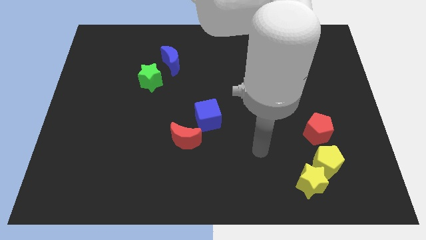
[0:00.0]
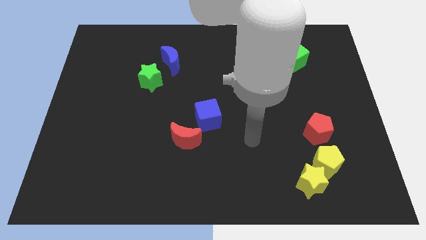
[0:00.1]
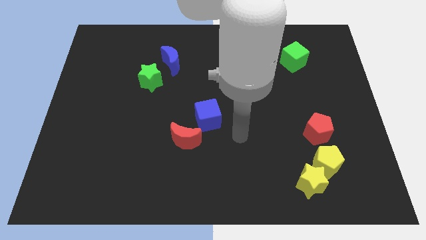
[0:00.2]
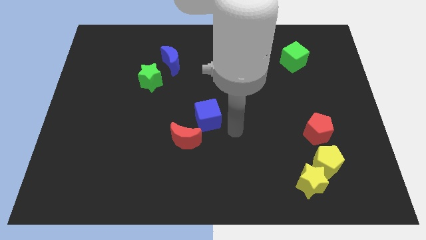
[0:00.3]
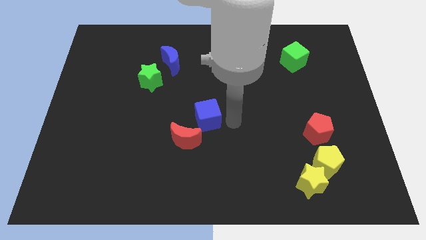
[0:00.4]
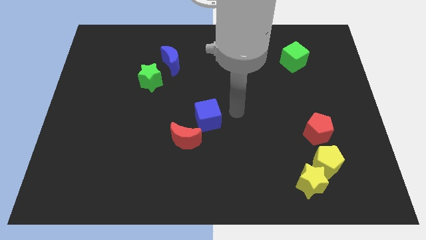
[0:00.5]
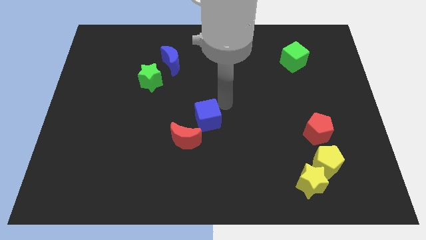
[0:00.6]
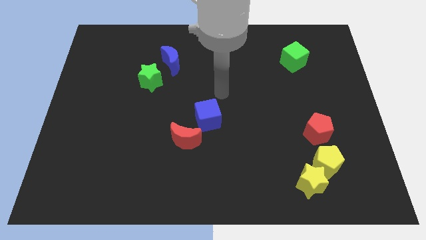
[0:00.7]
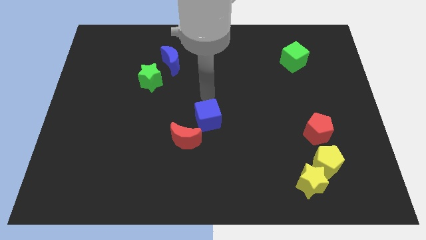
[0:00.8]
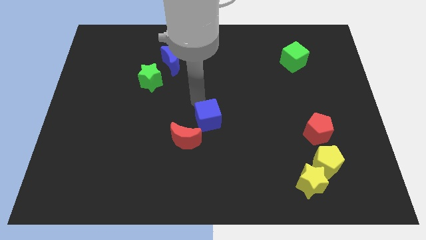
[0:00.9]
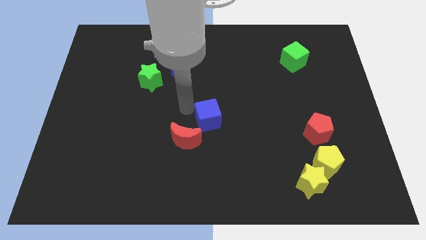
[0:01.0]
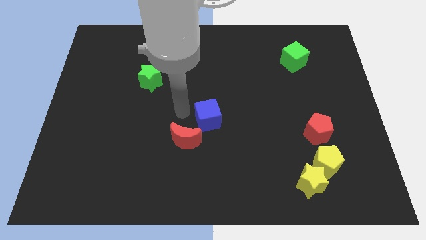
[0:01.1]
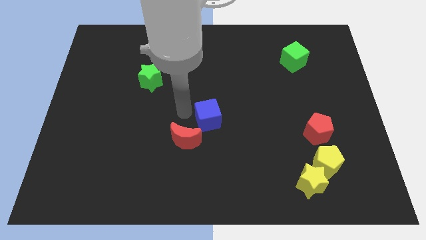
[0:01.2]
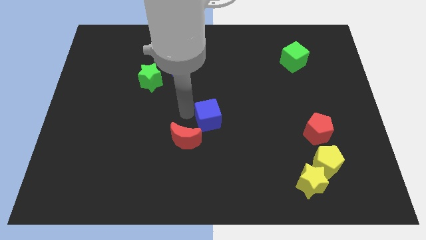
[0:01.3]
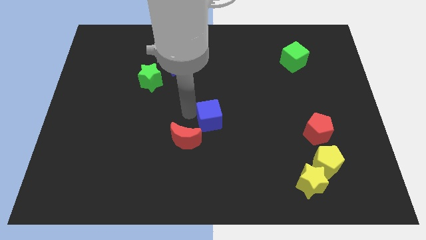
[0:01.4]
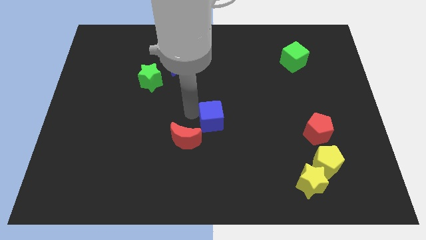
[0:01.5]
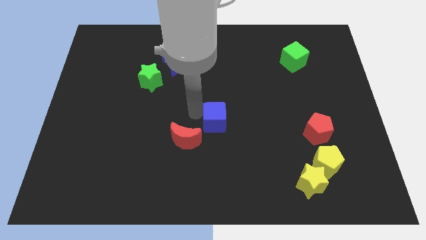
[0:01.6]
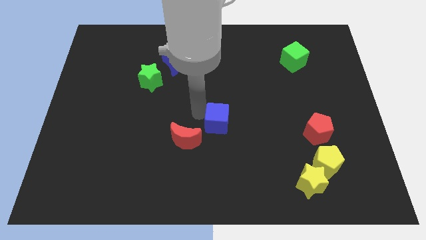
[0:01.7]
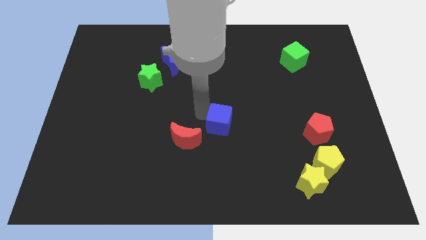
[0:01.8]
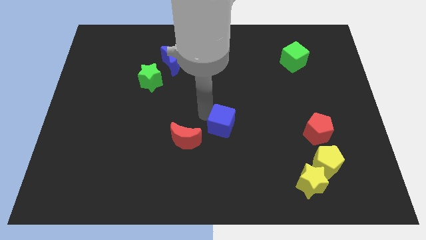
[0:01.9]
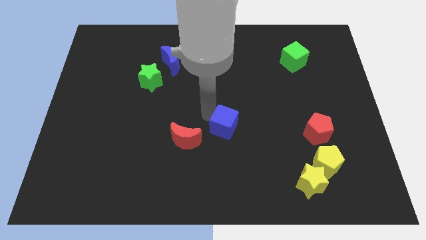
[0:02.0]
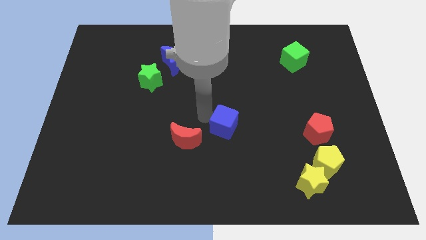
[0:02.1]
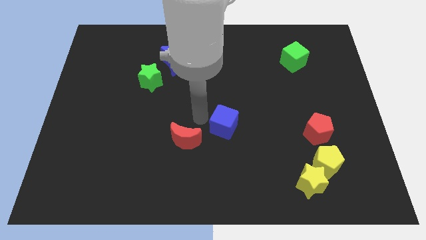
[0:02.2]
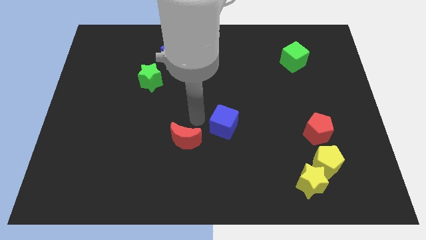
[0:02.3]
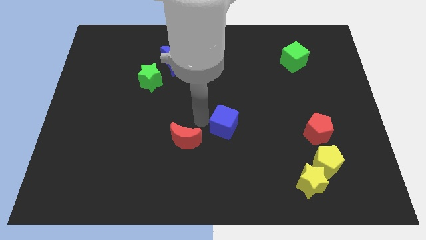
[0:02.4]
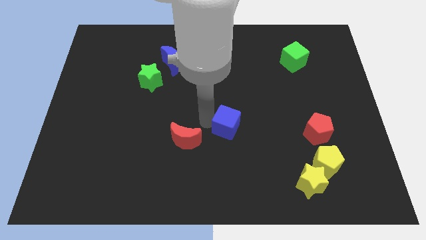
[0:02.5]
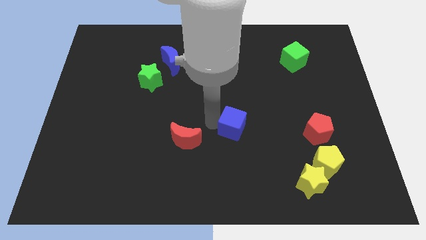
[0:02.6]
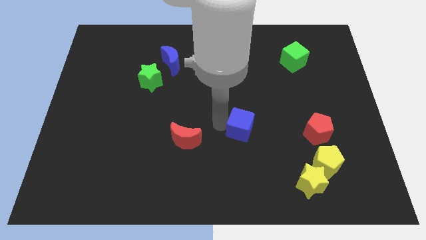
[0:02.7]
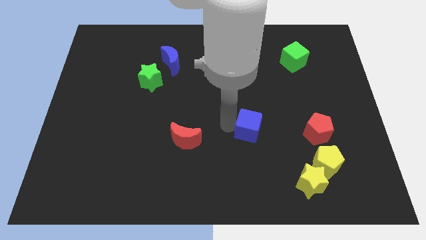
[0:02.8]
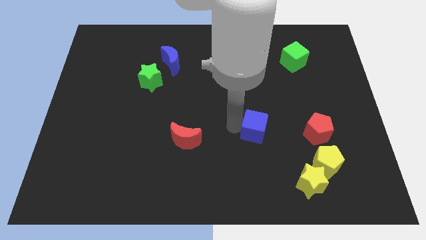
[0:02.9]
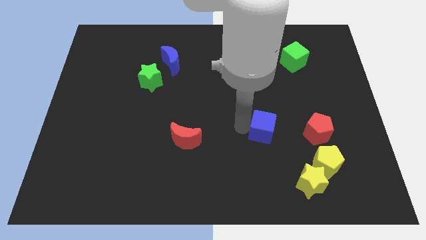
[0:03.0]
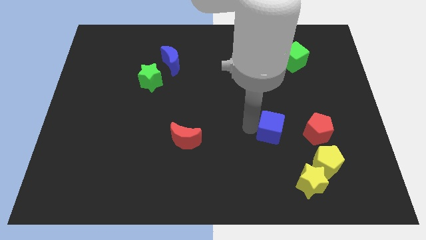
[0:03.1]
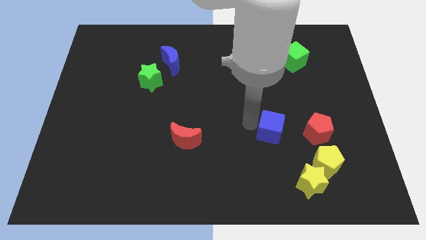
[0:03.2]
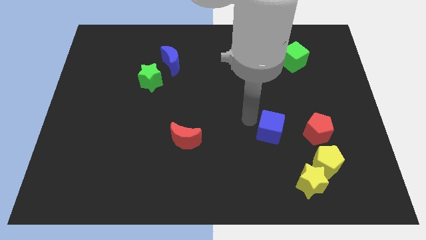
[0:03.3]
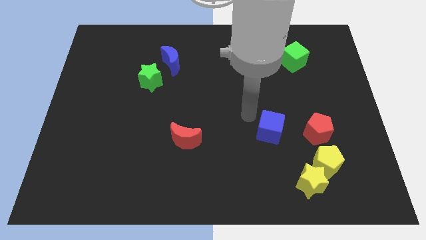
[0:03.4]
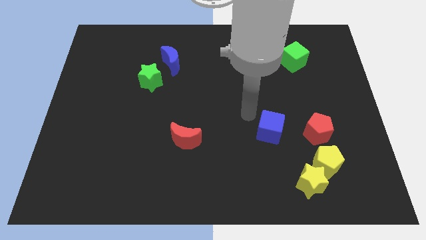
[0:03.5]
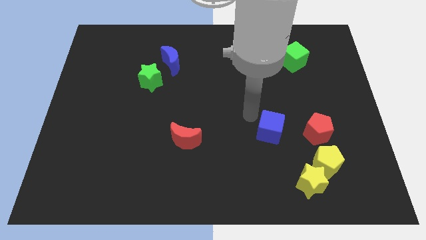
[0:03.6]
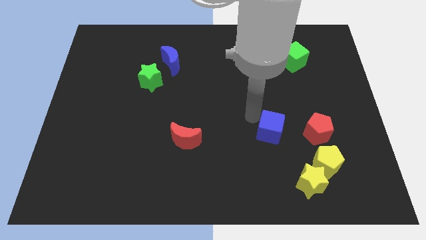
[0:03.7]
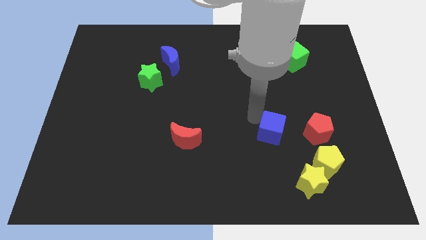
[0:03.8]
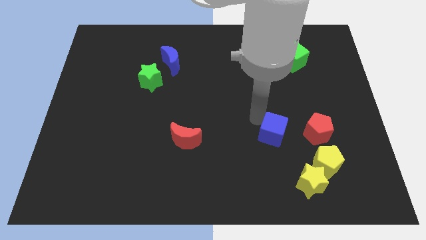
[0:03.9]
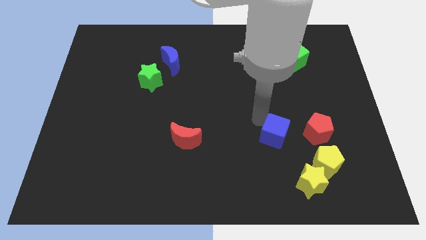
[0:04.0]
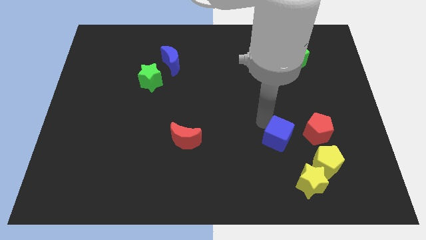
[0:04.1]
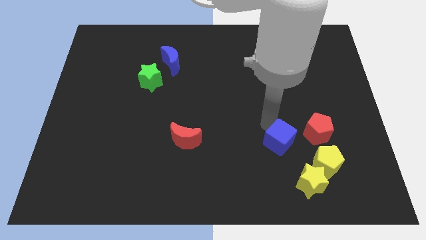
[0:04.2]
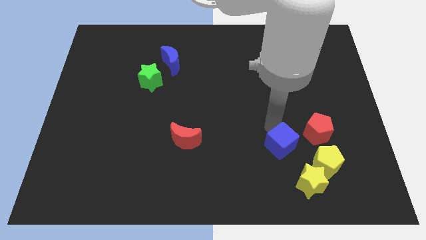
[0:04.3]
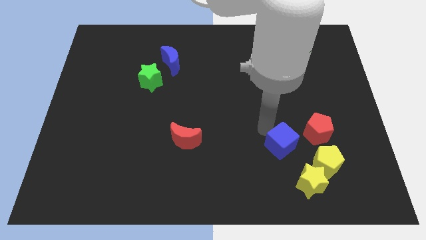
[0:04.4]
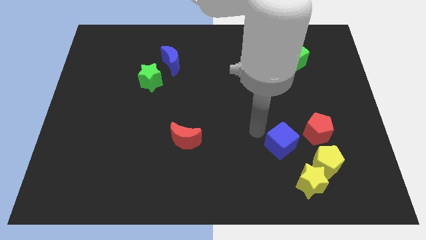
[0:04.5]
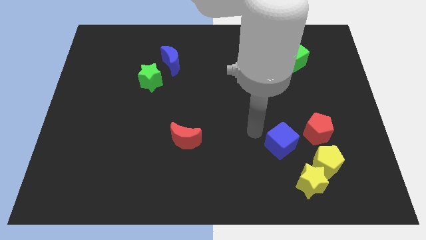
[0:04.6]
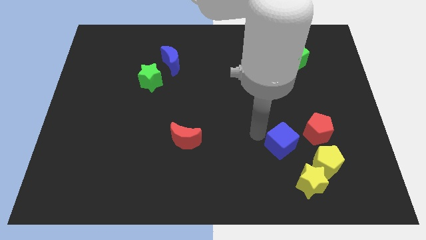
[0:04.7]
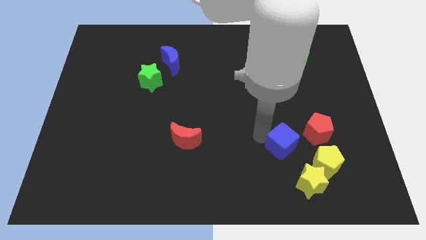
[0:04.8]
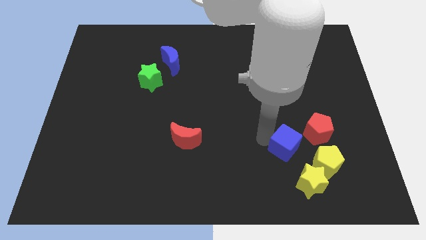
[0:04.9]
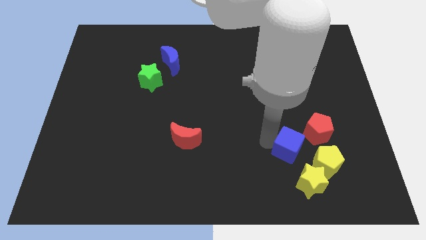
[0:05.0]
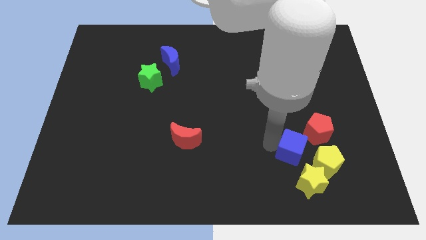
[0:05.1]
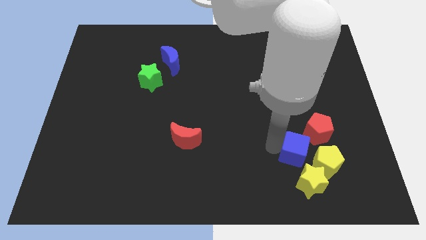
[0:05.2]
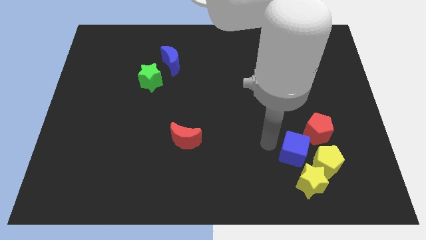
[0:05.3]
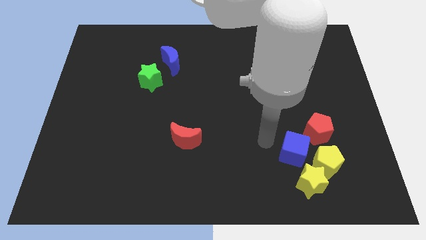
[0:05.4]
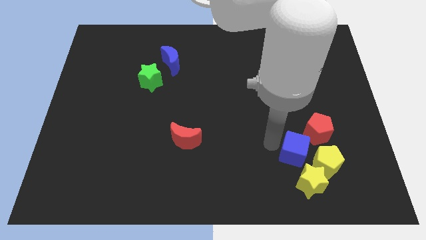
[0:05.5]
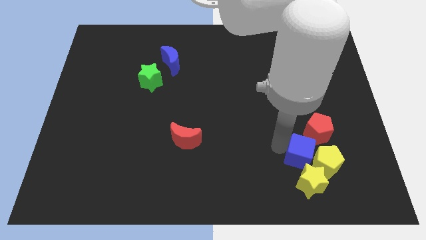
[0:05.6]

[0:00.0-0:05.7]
move the blue cube next to the yellow pentagon
